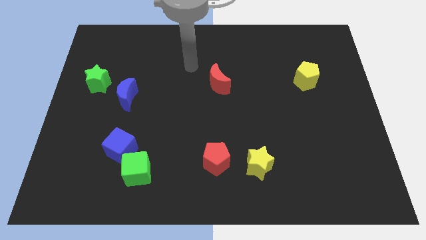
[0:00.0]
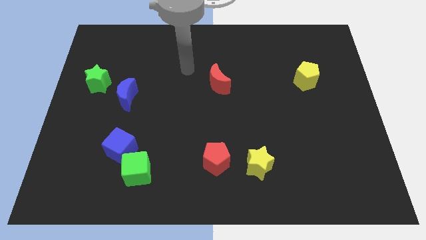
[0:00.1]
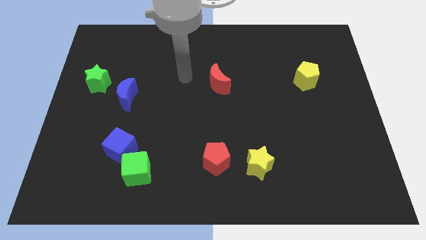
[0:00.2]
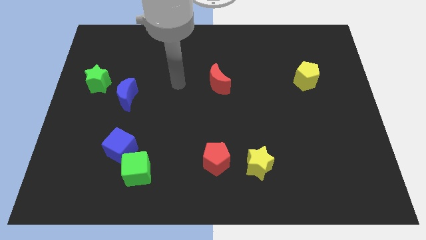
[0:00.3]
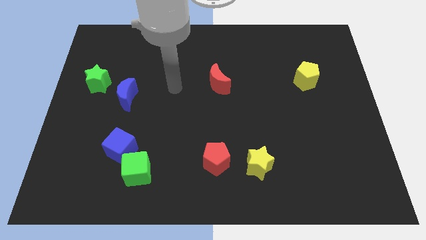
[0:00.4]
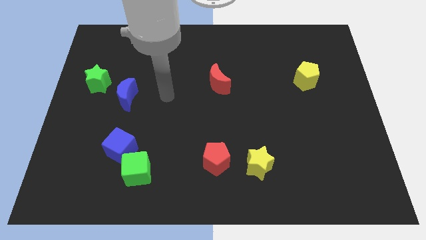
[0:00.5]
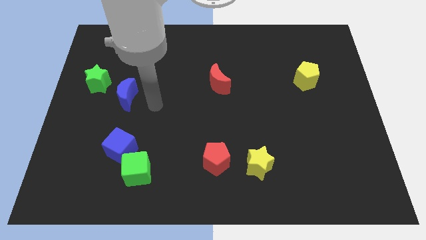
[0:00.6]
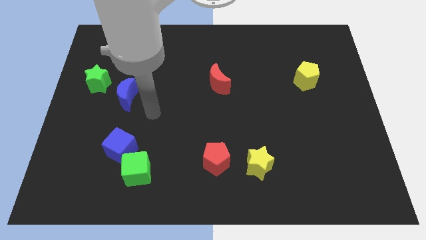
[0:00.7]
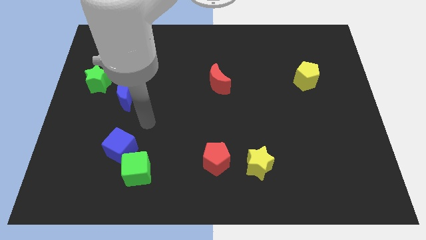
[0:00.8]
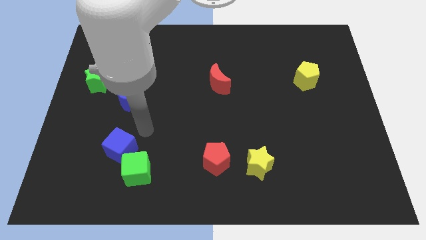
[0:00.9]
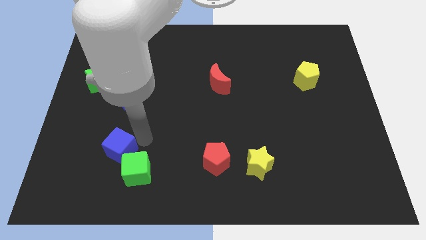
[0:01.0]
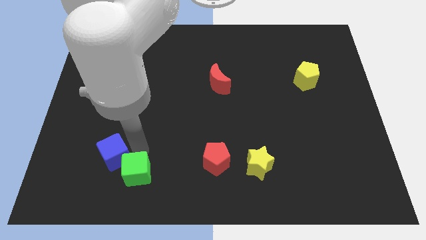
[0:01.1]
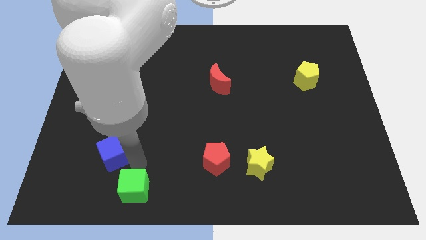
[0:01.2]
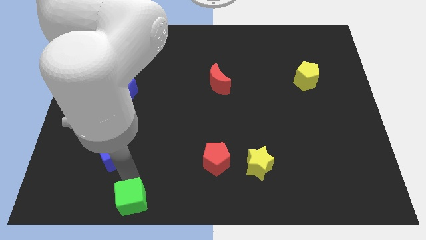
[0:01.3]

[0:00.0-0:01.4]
pull the blue cube apart from the green cube

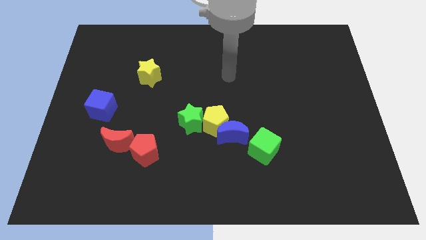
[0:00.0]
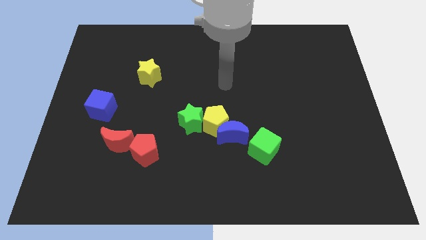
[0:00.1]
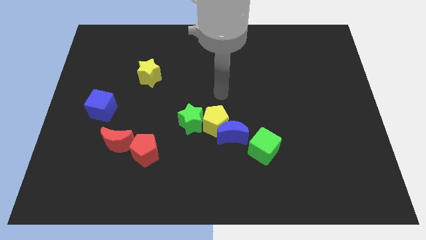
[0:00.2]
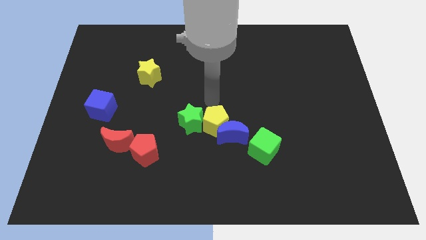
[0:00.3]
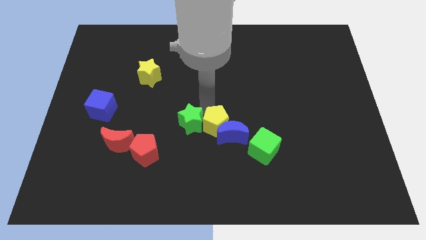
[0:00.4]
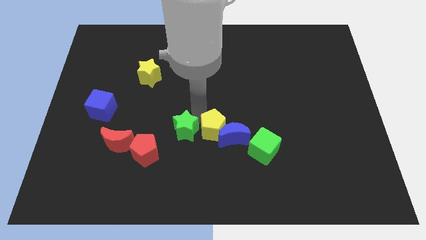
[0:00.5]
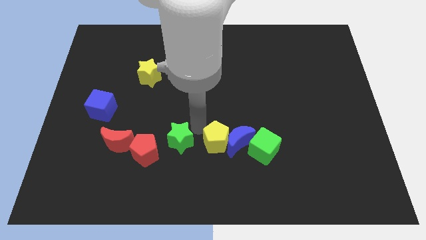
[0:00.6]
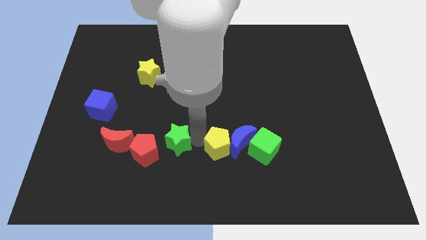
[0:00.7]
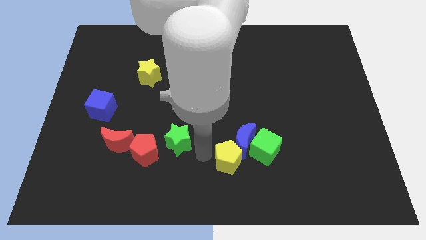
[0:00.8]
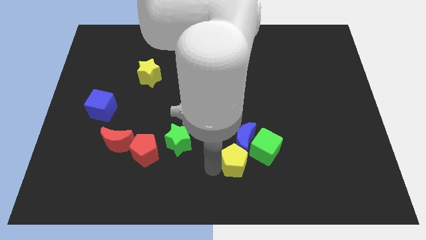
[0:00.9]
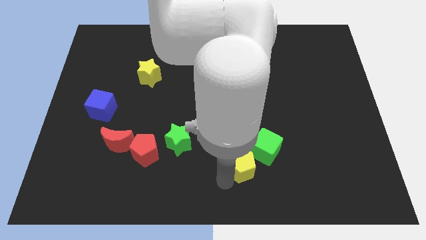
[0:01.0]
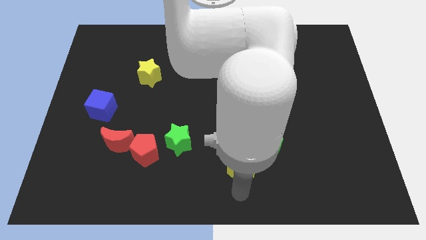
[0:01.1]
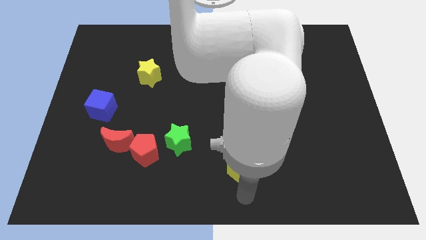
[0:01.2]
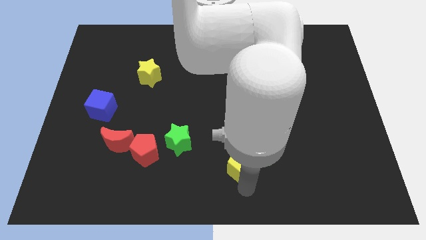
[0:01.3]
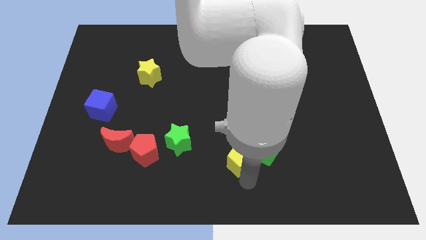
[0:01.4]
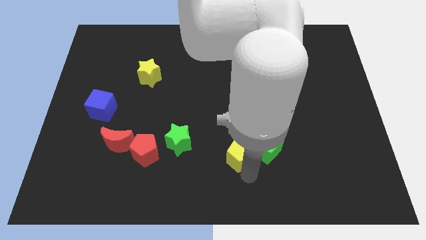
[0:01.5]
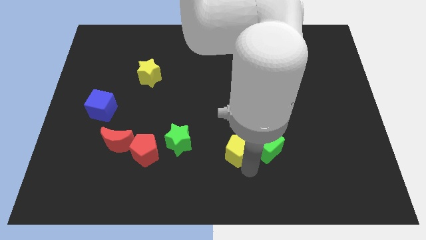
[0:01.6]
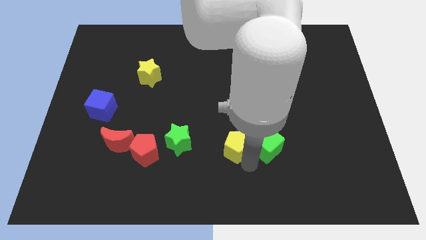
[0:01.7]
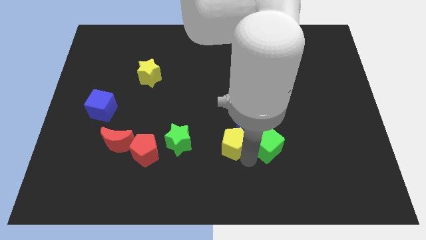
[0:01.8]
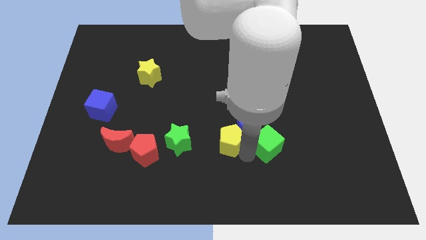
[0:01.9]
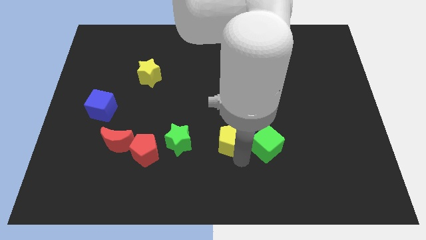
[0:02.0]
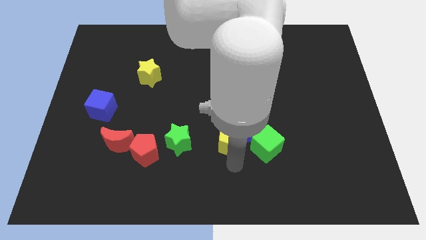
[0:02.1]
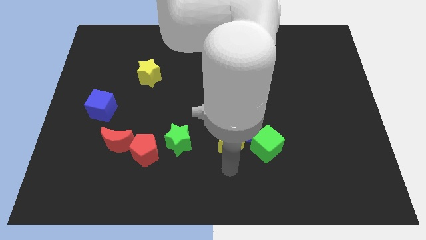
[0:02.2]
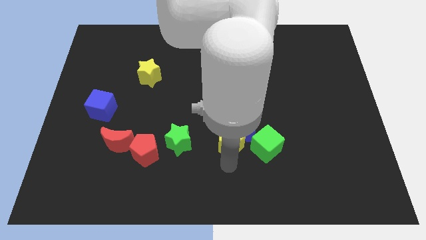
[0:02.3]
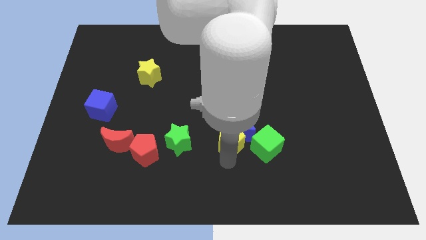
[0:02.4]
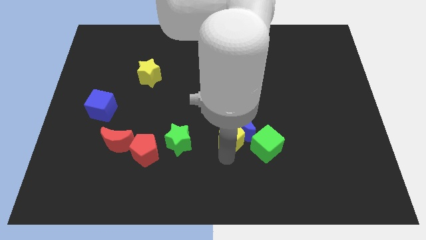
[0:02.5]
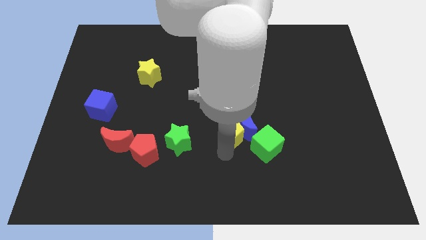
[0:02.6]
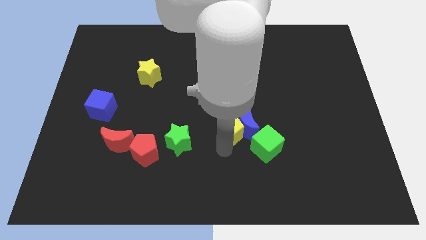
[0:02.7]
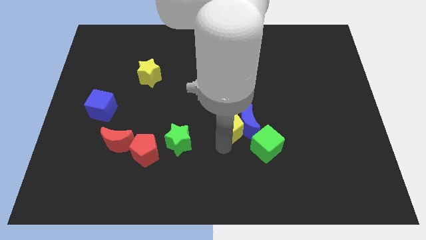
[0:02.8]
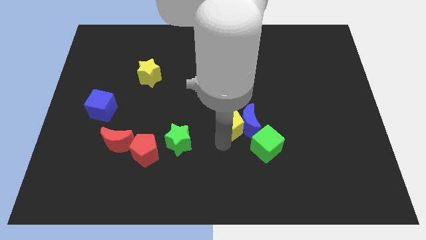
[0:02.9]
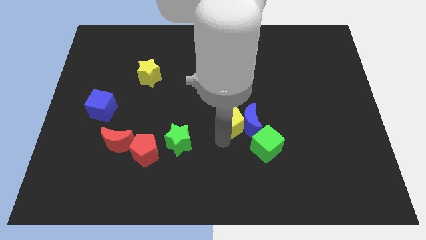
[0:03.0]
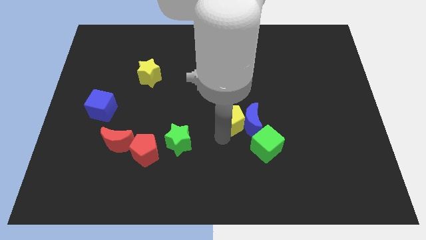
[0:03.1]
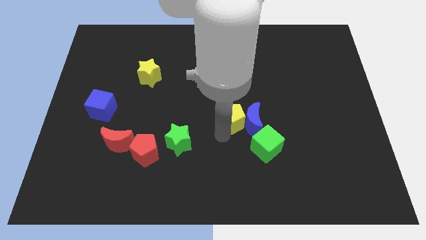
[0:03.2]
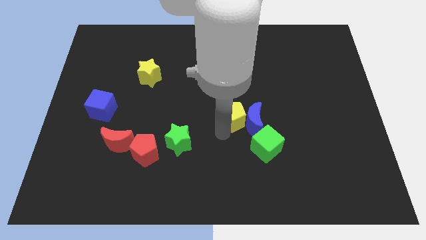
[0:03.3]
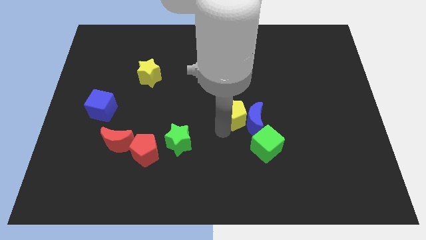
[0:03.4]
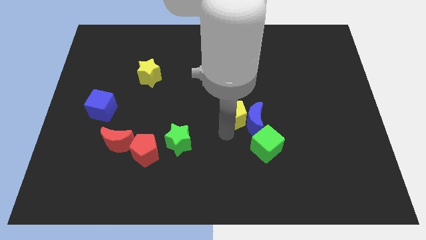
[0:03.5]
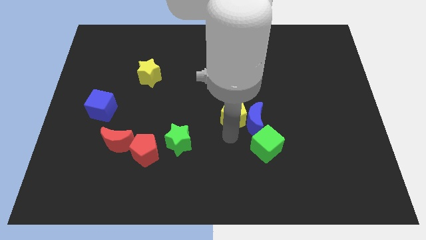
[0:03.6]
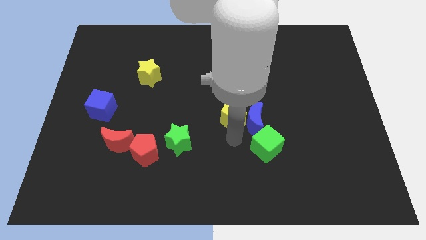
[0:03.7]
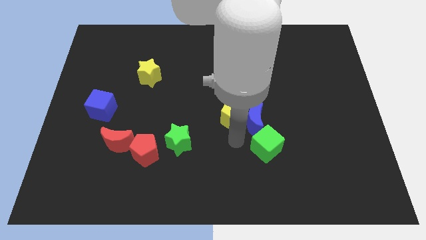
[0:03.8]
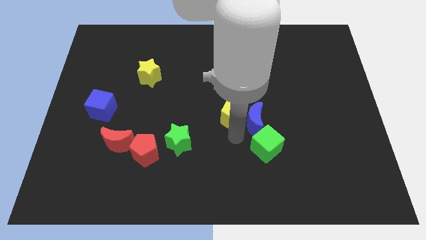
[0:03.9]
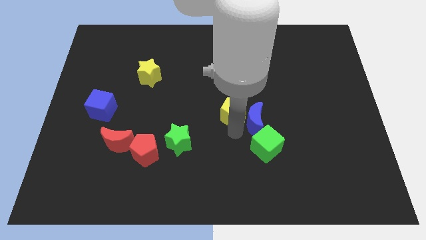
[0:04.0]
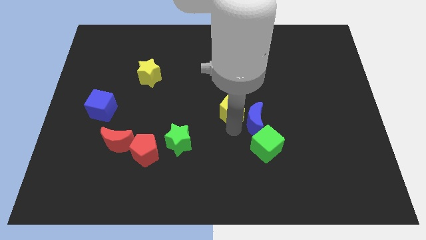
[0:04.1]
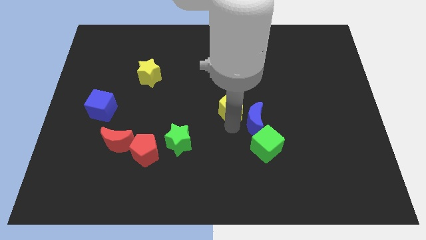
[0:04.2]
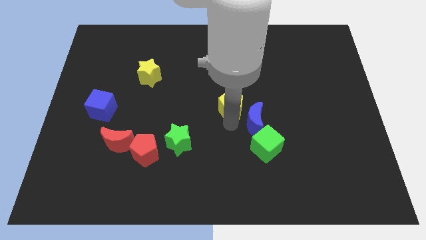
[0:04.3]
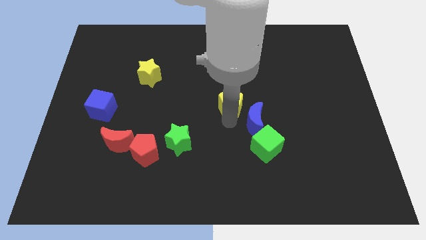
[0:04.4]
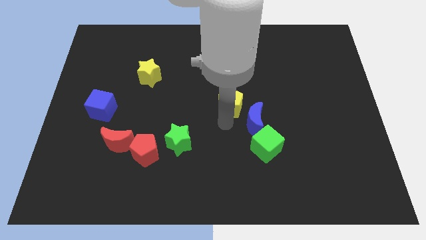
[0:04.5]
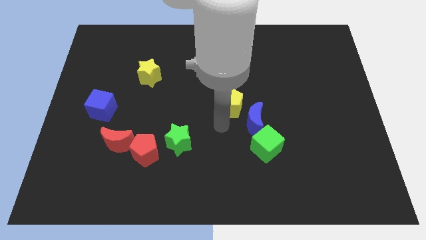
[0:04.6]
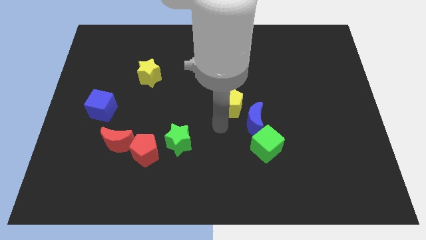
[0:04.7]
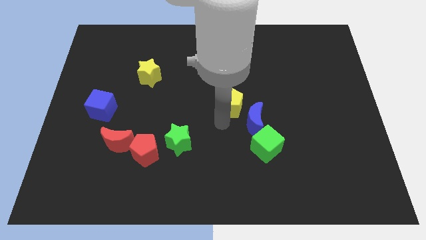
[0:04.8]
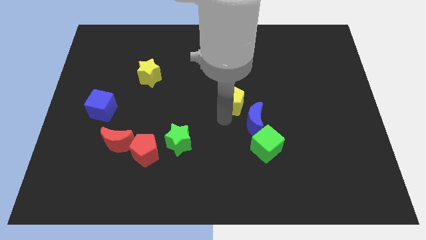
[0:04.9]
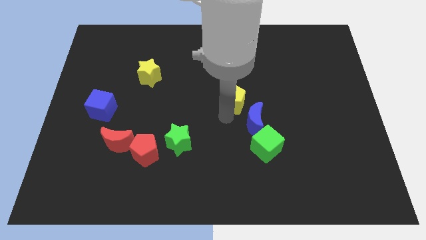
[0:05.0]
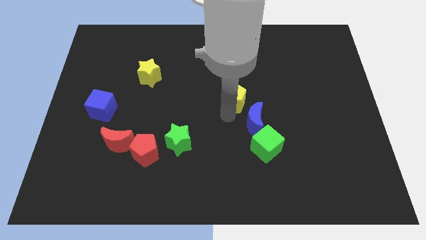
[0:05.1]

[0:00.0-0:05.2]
separate the yellow pentagon from the blue moon and green star

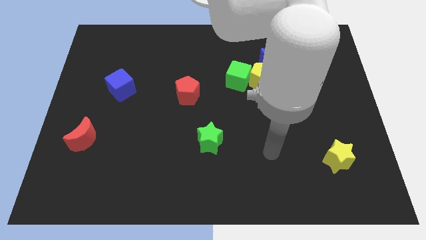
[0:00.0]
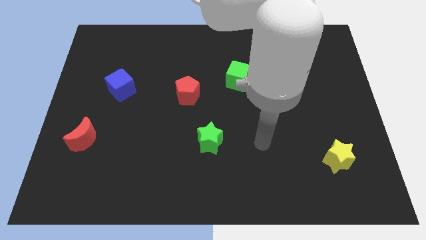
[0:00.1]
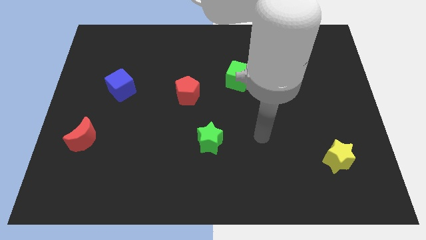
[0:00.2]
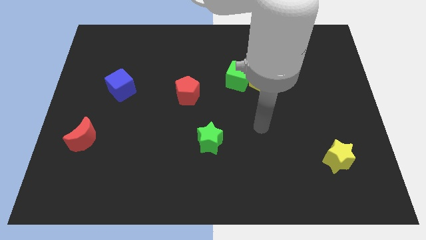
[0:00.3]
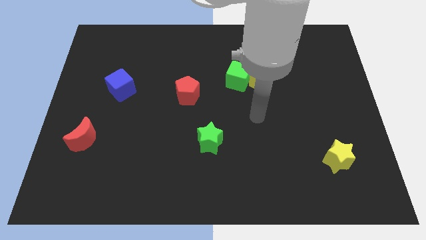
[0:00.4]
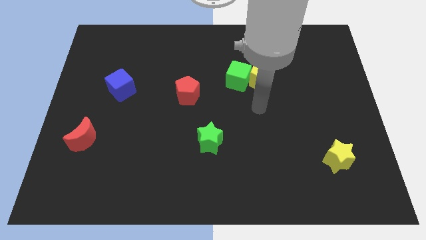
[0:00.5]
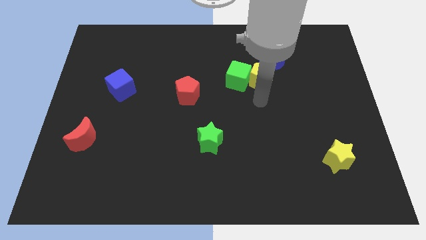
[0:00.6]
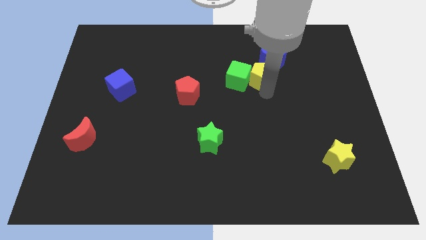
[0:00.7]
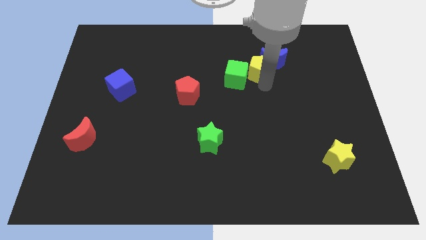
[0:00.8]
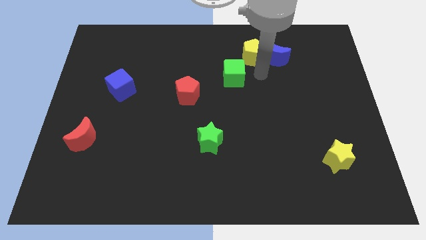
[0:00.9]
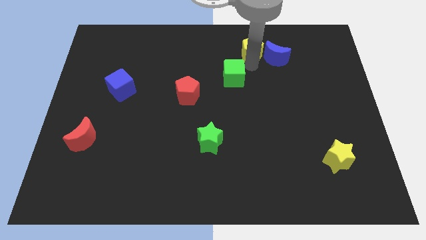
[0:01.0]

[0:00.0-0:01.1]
move the green cube away from the yellow pentagon

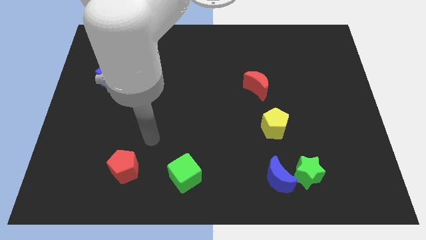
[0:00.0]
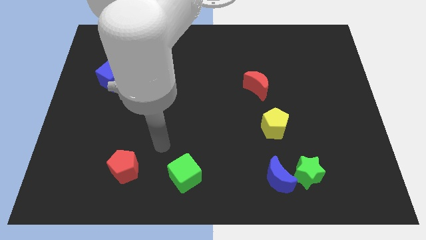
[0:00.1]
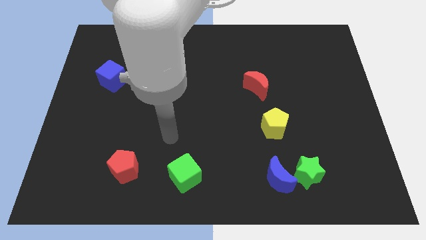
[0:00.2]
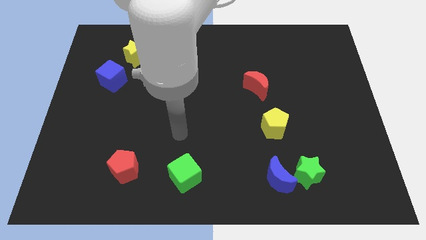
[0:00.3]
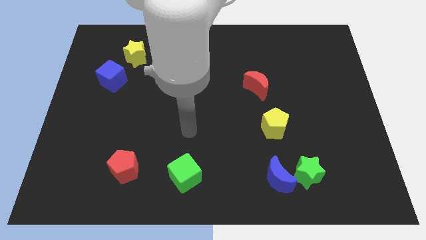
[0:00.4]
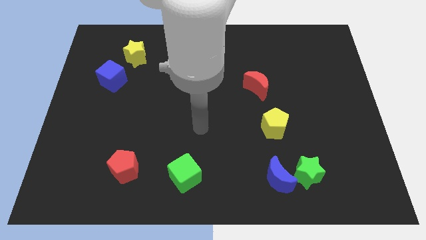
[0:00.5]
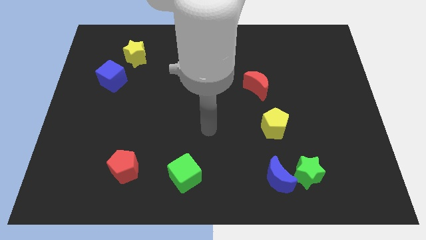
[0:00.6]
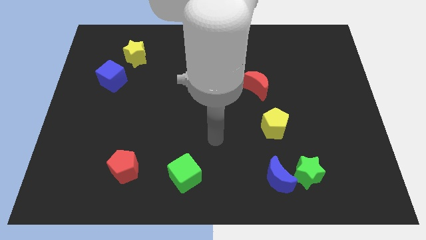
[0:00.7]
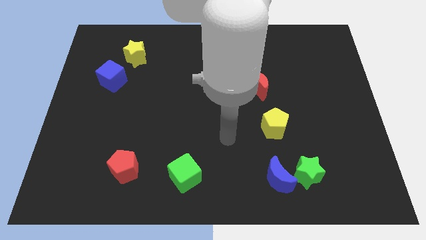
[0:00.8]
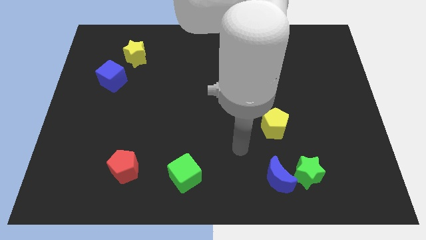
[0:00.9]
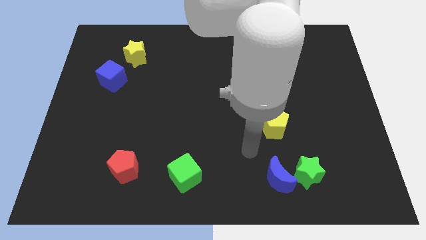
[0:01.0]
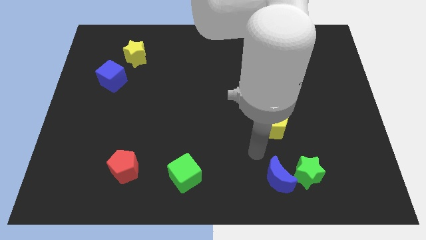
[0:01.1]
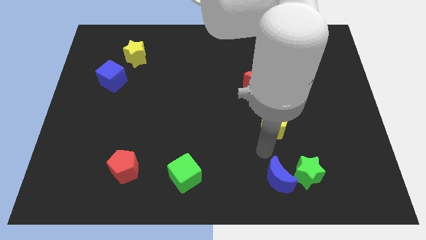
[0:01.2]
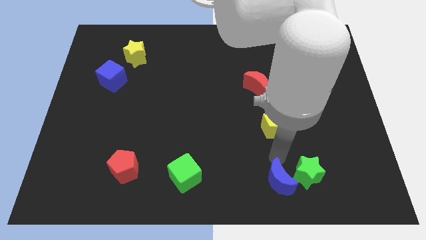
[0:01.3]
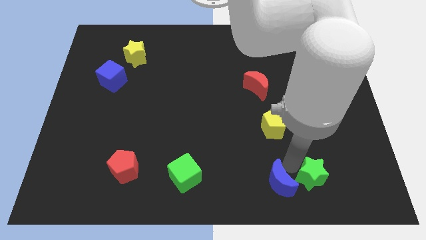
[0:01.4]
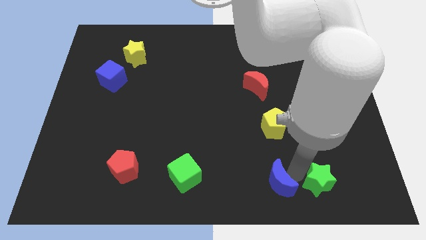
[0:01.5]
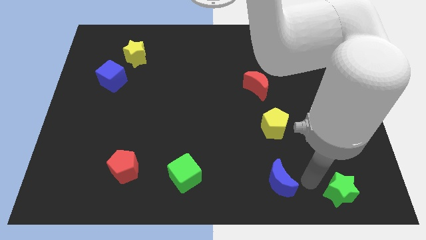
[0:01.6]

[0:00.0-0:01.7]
pull the blue moon apart from the green star
